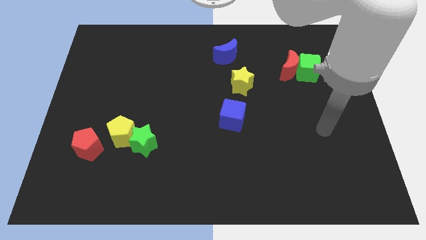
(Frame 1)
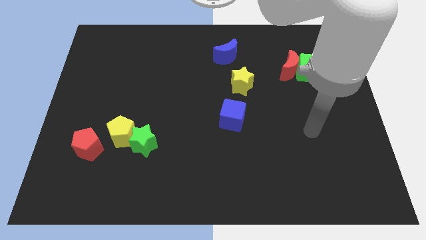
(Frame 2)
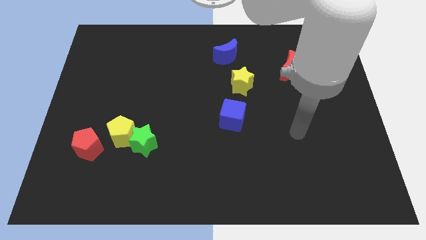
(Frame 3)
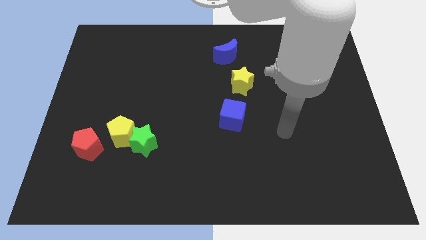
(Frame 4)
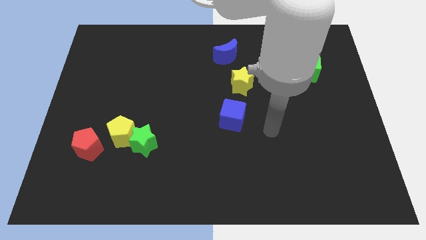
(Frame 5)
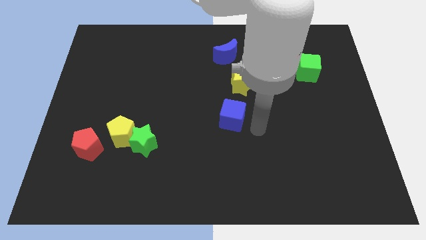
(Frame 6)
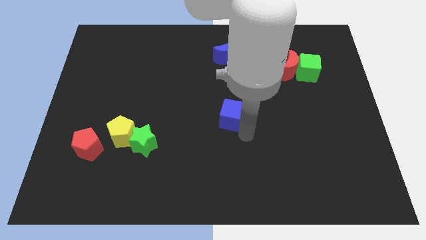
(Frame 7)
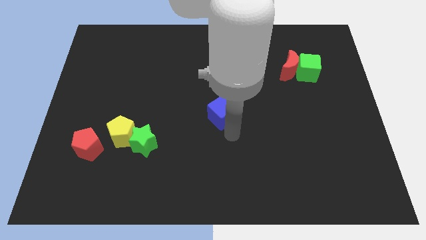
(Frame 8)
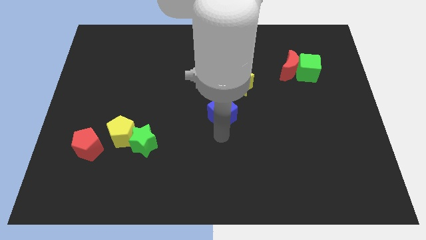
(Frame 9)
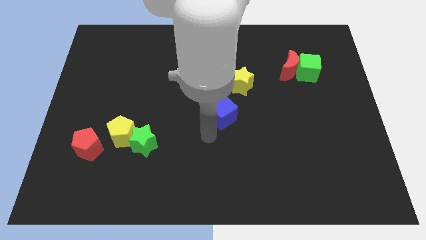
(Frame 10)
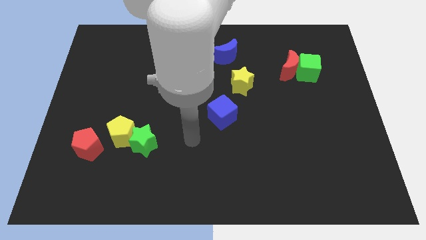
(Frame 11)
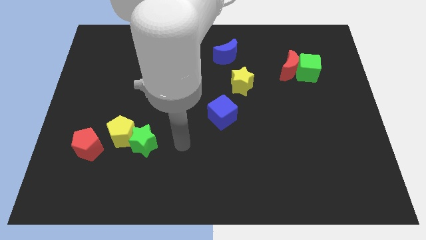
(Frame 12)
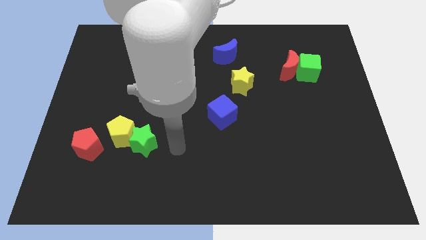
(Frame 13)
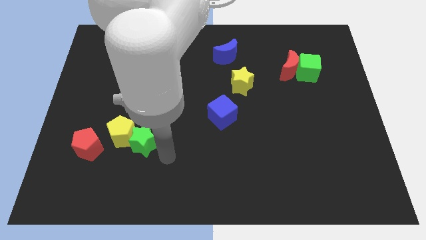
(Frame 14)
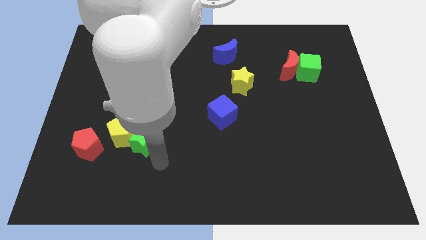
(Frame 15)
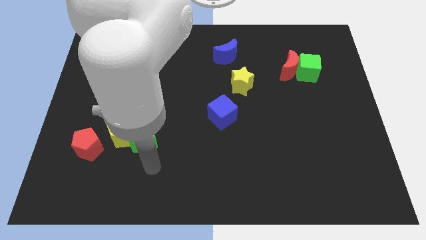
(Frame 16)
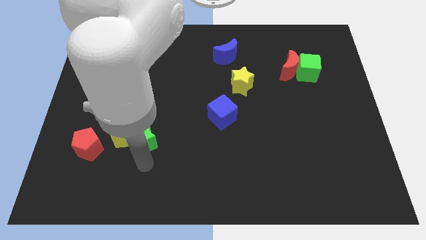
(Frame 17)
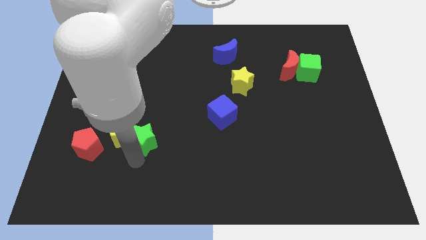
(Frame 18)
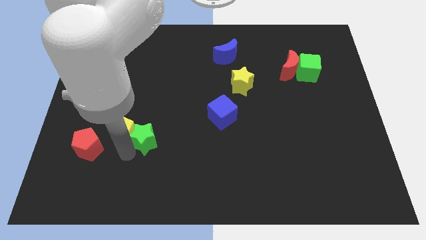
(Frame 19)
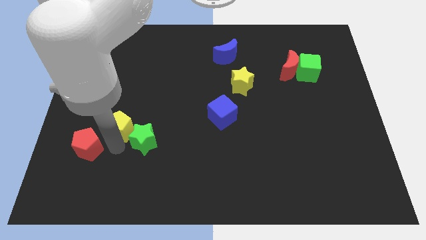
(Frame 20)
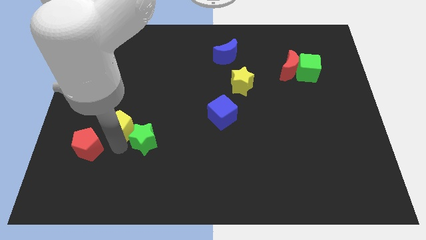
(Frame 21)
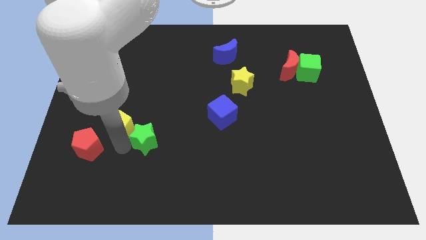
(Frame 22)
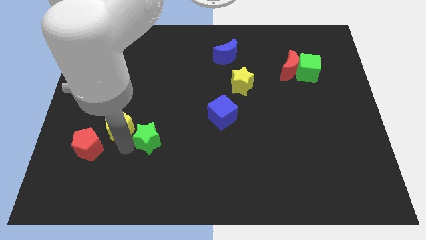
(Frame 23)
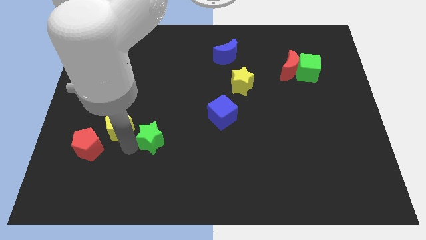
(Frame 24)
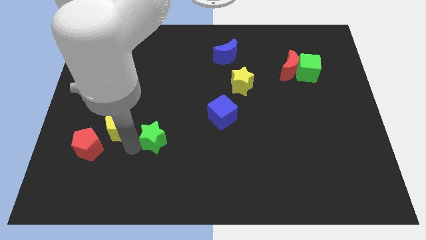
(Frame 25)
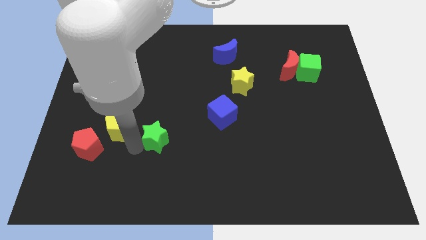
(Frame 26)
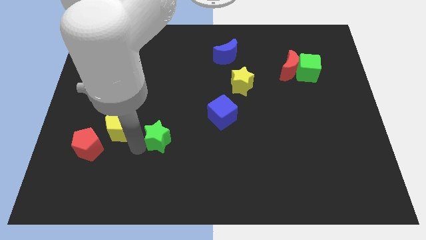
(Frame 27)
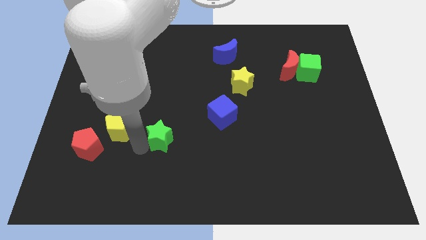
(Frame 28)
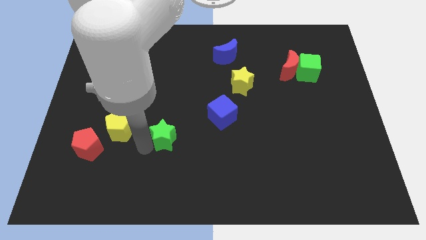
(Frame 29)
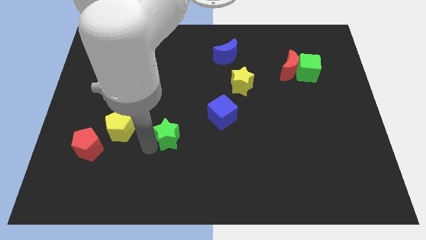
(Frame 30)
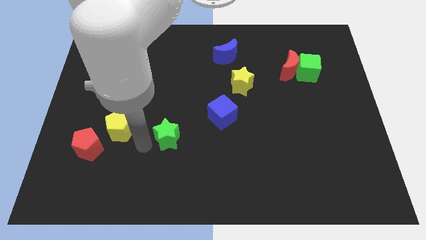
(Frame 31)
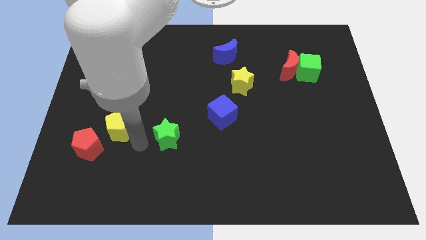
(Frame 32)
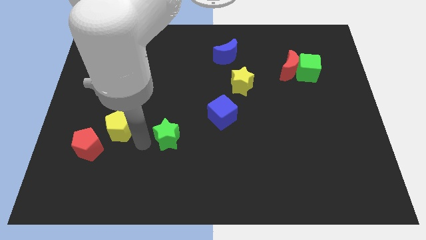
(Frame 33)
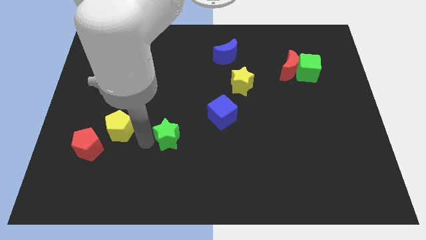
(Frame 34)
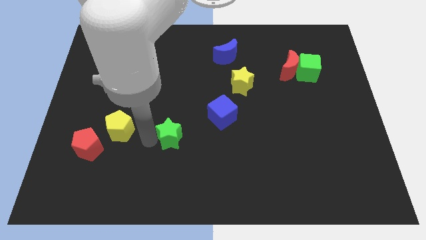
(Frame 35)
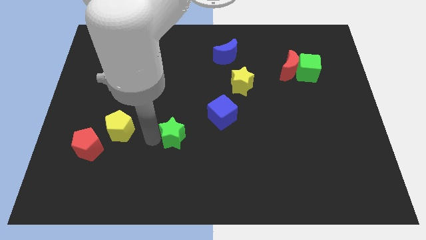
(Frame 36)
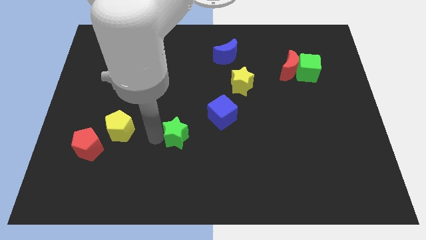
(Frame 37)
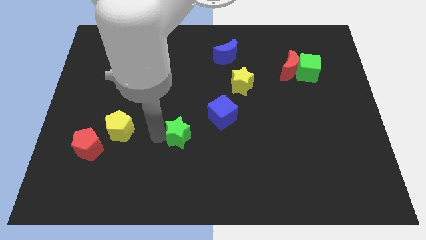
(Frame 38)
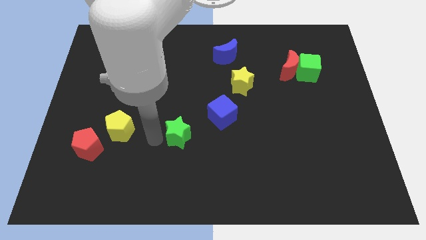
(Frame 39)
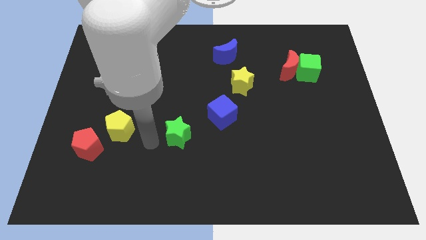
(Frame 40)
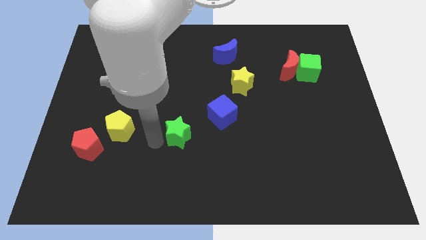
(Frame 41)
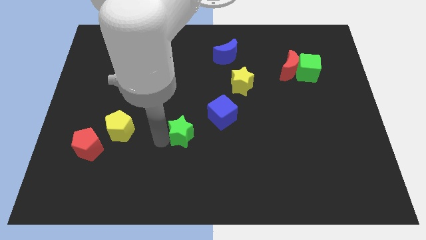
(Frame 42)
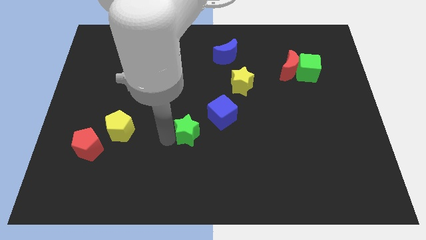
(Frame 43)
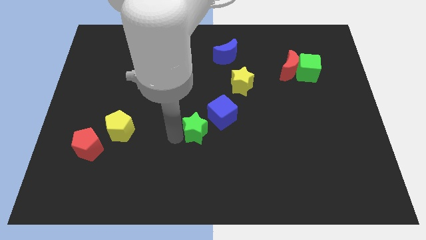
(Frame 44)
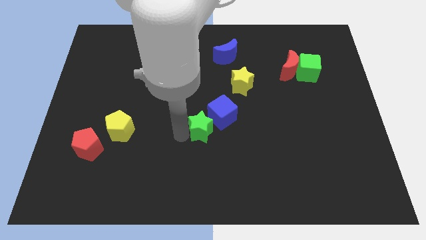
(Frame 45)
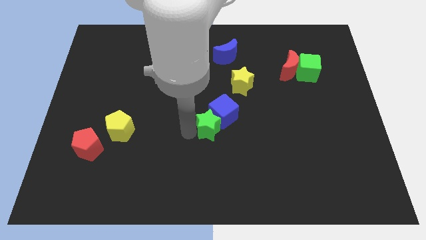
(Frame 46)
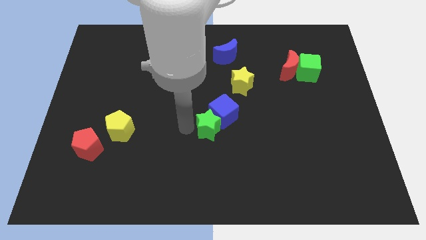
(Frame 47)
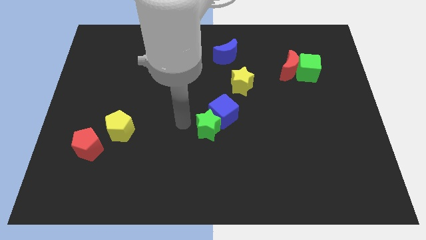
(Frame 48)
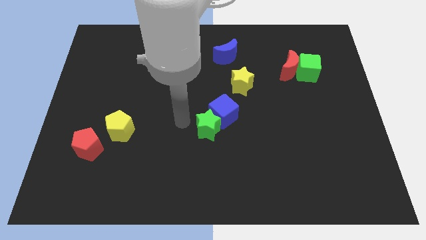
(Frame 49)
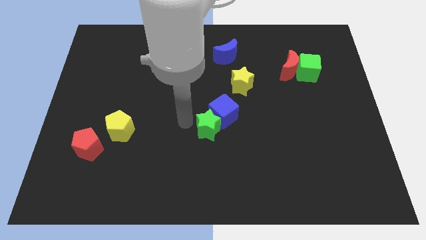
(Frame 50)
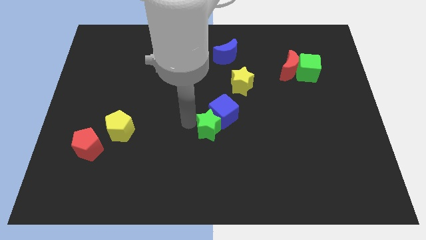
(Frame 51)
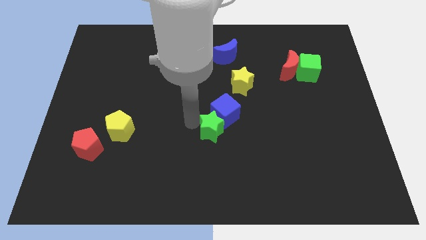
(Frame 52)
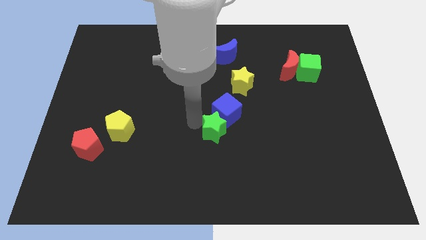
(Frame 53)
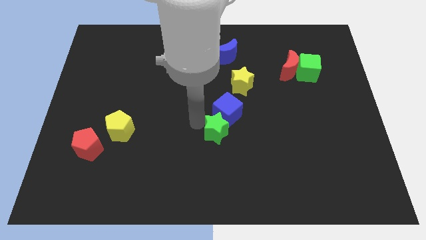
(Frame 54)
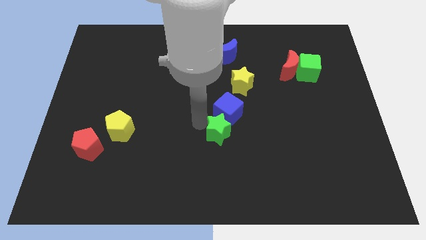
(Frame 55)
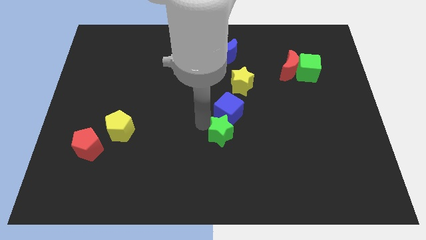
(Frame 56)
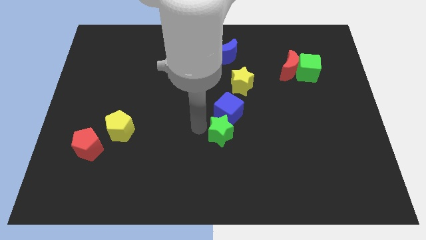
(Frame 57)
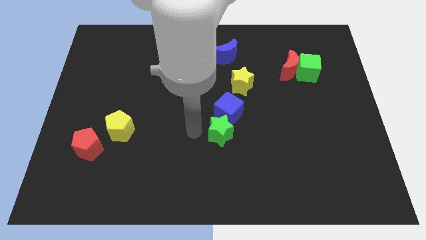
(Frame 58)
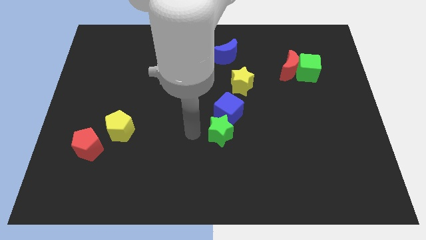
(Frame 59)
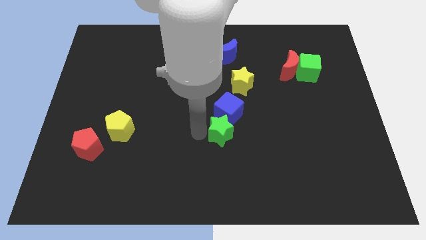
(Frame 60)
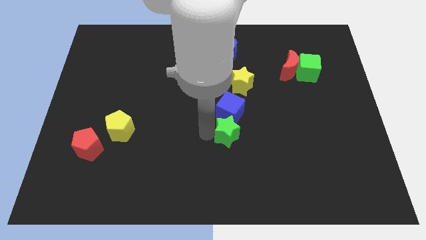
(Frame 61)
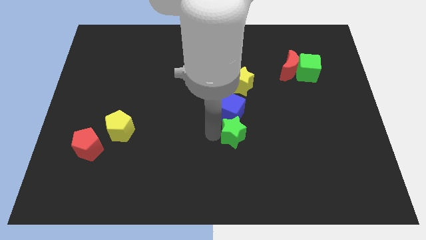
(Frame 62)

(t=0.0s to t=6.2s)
slide the green star to the bottom of the yellow star
